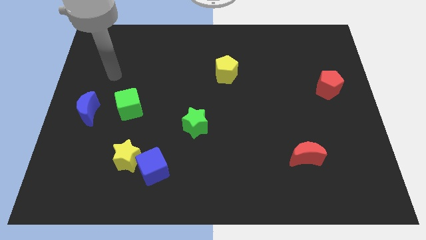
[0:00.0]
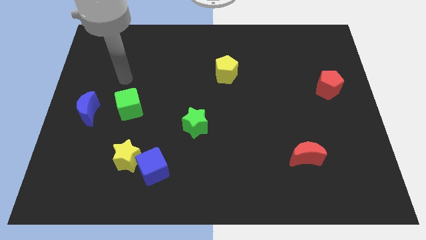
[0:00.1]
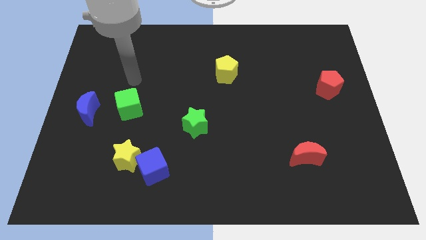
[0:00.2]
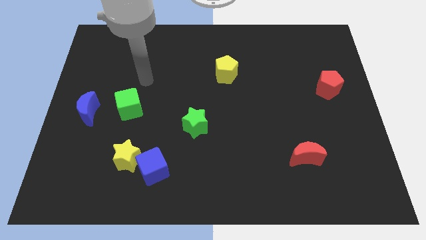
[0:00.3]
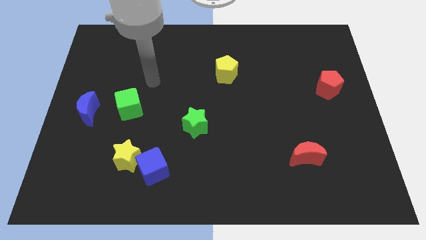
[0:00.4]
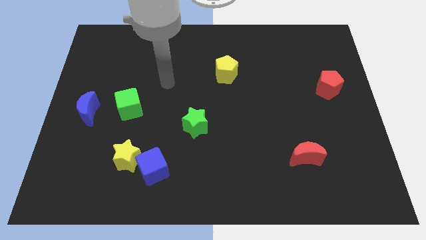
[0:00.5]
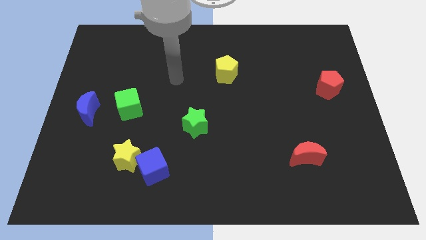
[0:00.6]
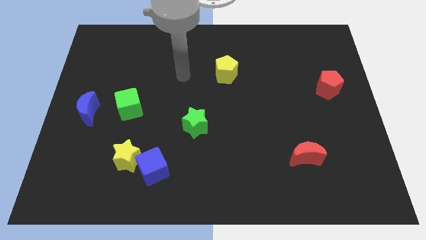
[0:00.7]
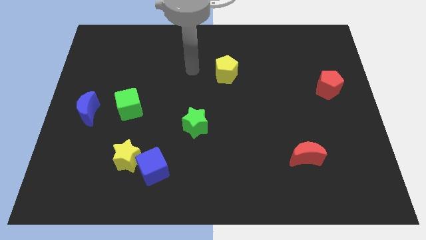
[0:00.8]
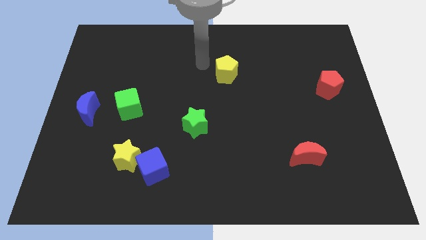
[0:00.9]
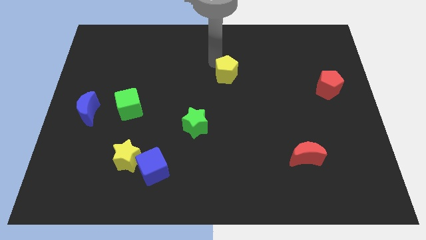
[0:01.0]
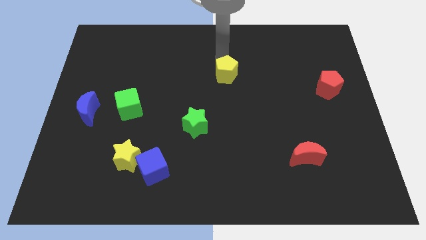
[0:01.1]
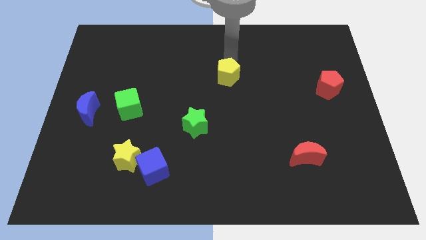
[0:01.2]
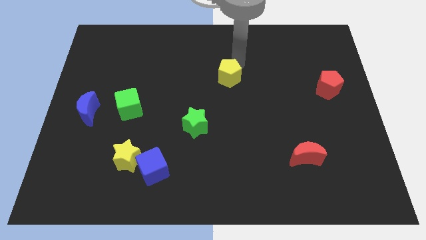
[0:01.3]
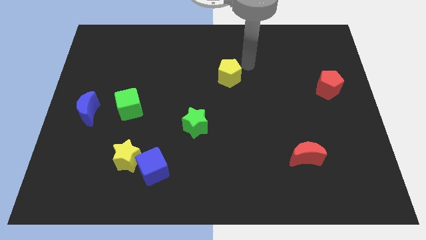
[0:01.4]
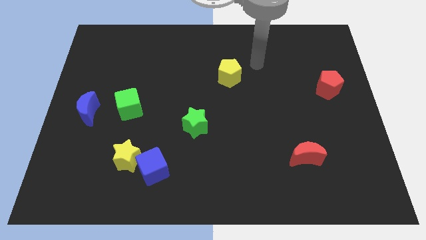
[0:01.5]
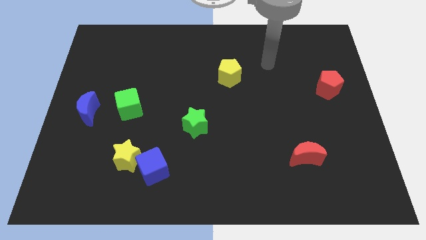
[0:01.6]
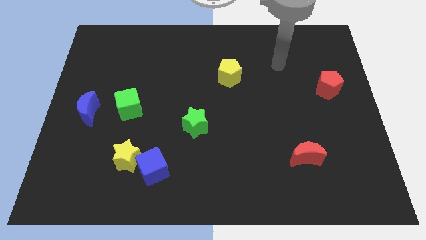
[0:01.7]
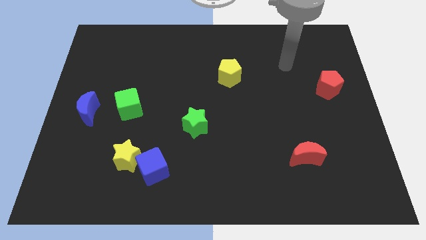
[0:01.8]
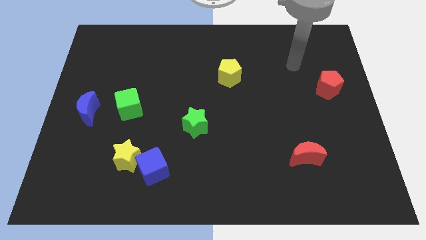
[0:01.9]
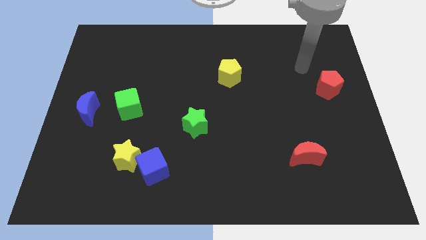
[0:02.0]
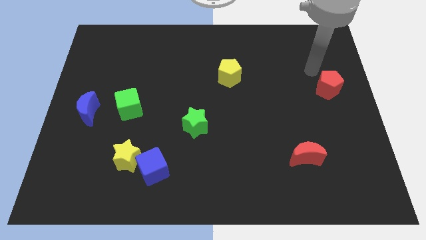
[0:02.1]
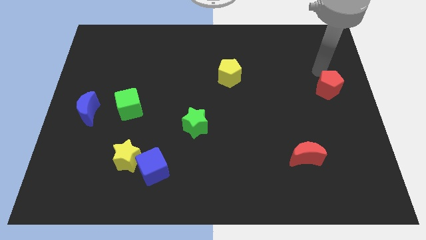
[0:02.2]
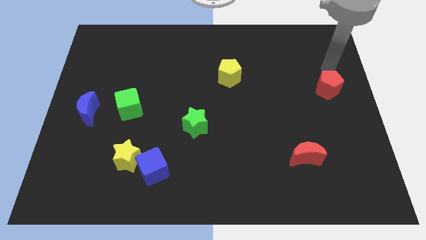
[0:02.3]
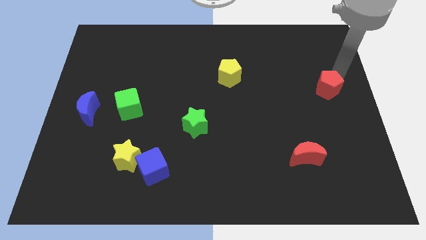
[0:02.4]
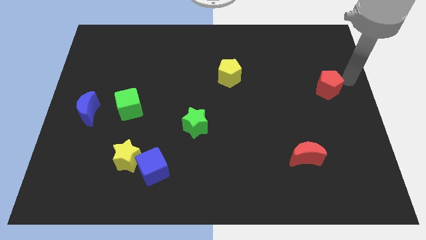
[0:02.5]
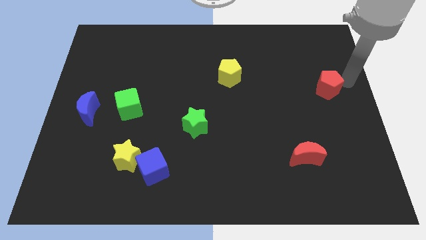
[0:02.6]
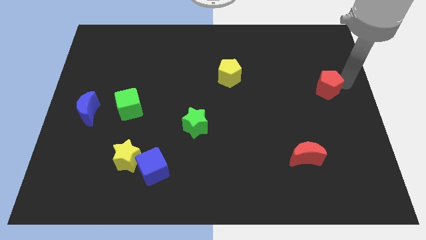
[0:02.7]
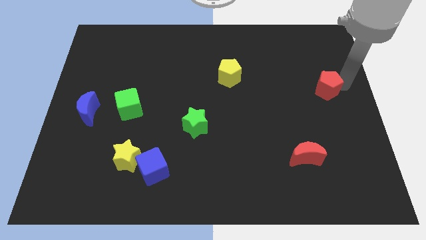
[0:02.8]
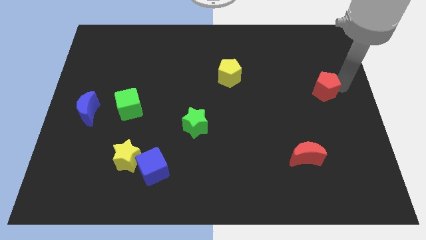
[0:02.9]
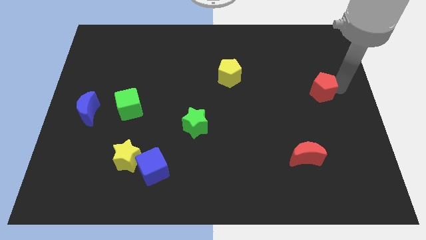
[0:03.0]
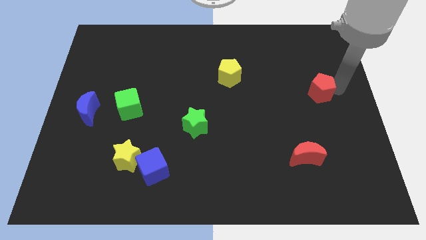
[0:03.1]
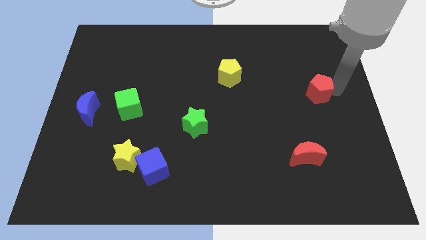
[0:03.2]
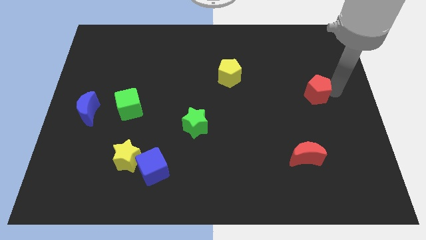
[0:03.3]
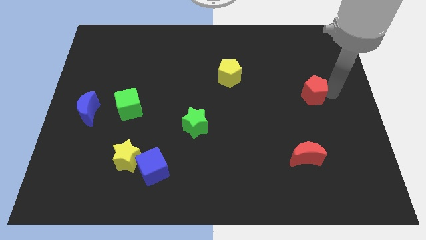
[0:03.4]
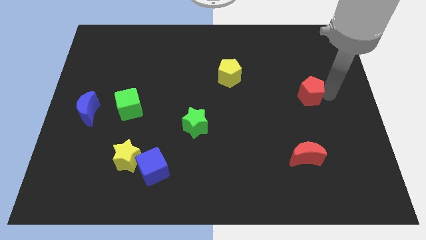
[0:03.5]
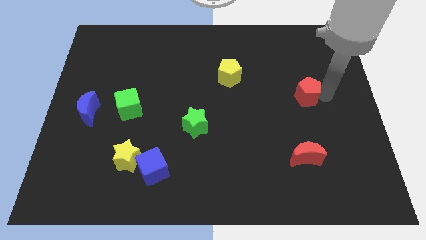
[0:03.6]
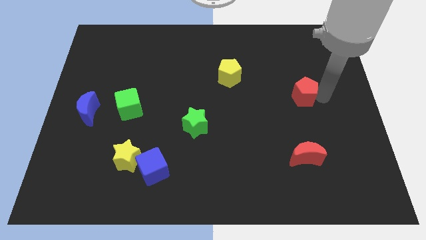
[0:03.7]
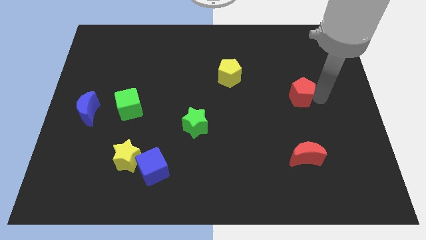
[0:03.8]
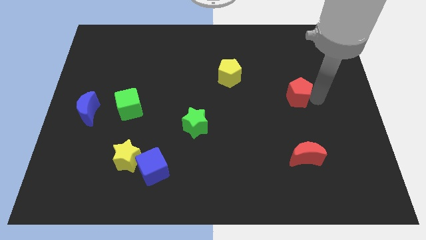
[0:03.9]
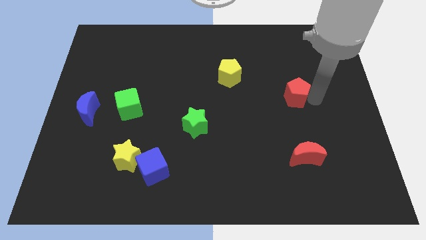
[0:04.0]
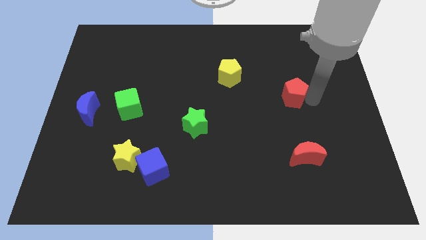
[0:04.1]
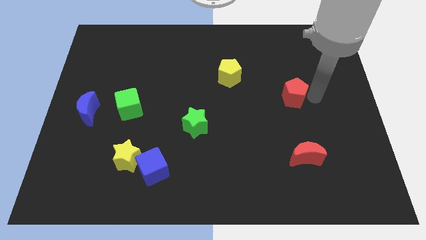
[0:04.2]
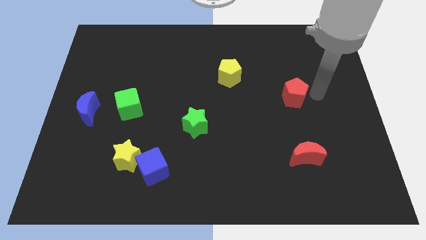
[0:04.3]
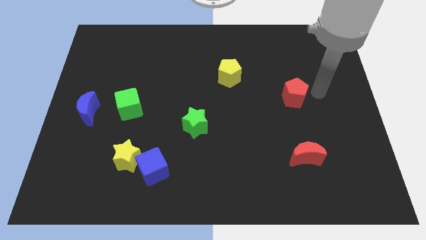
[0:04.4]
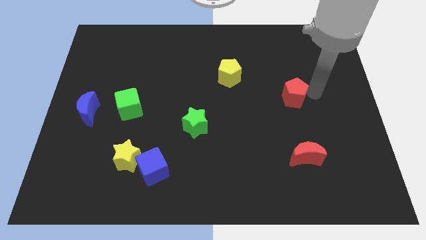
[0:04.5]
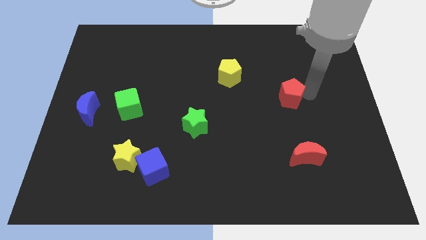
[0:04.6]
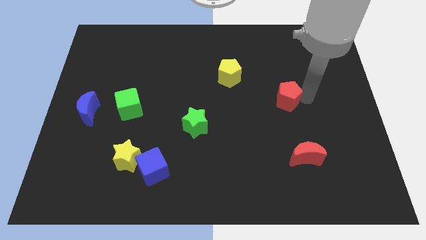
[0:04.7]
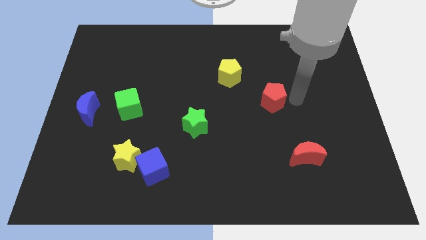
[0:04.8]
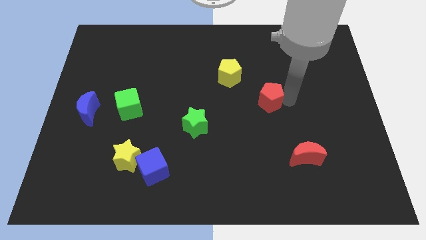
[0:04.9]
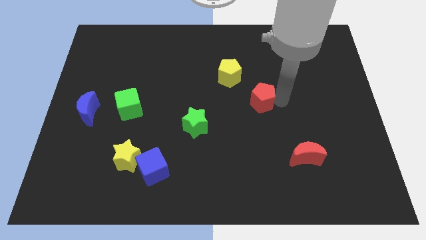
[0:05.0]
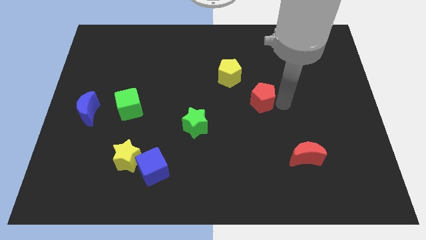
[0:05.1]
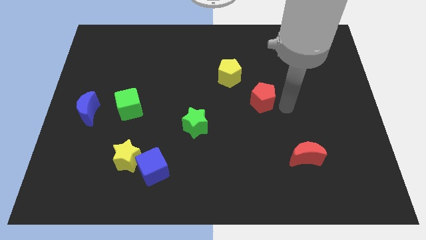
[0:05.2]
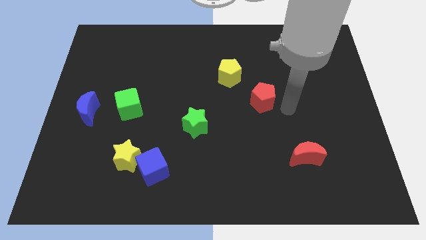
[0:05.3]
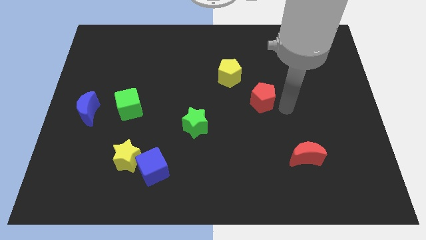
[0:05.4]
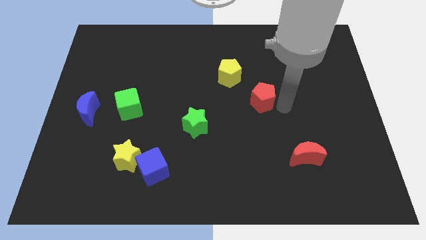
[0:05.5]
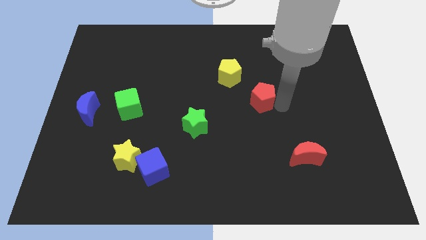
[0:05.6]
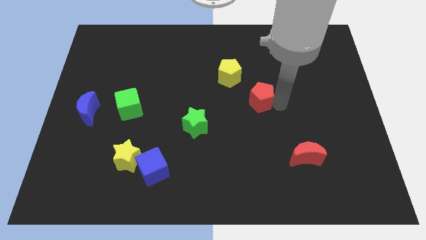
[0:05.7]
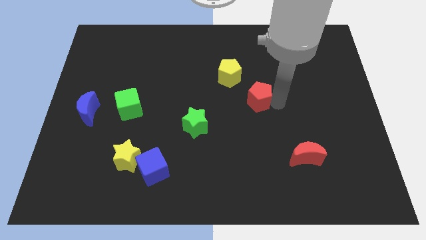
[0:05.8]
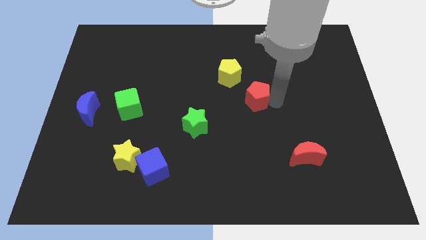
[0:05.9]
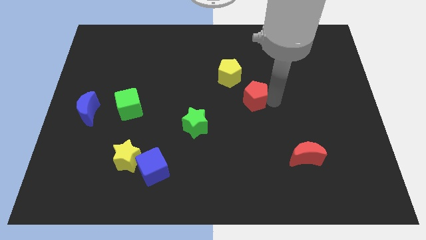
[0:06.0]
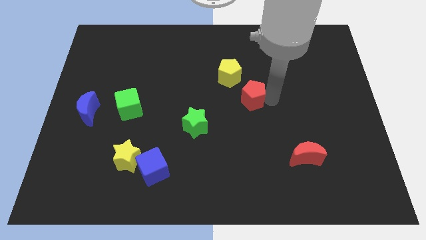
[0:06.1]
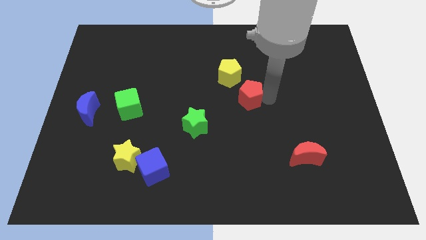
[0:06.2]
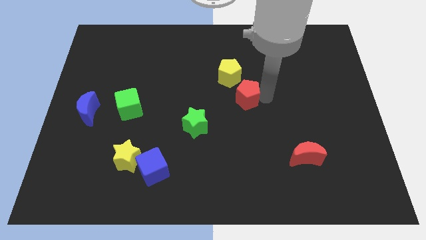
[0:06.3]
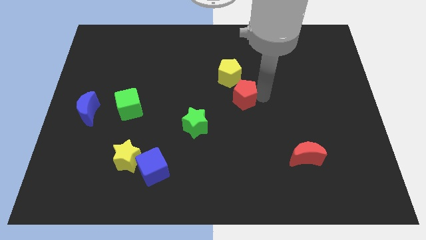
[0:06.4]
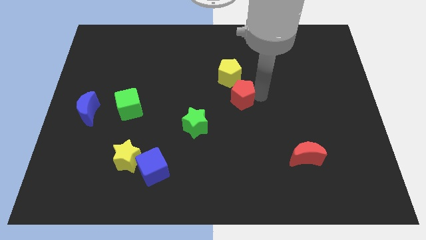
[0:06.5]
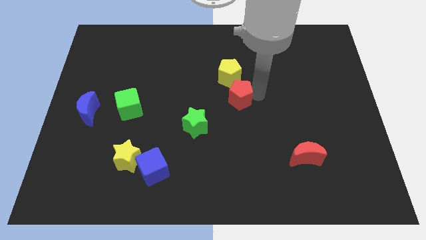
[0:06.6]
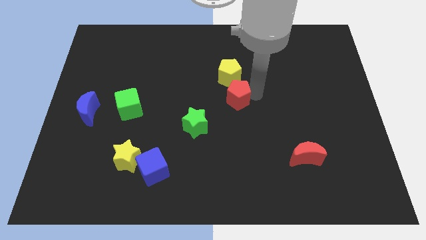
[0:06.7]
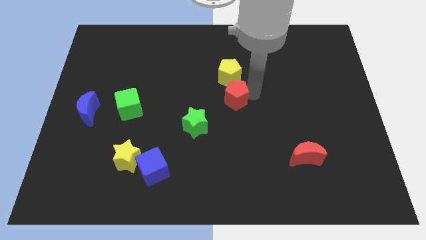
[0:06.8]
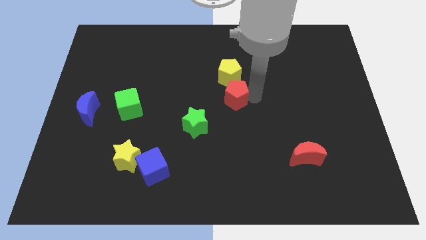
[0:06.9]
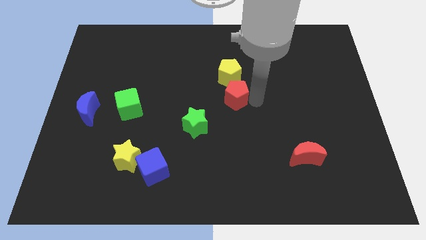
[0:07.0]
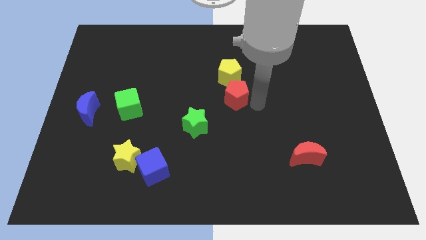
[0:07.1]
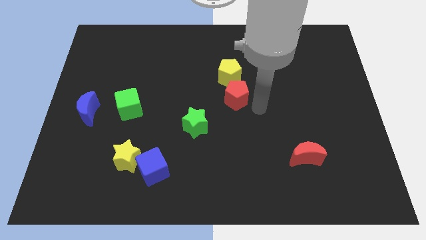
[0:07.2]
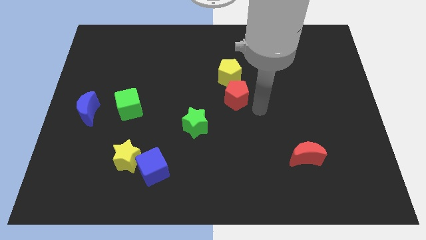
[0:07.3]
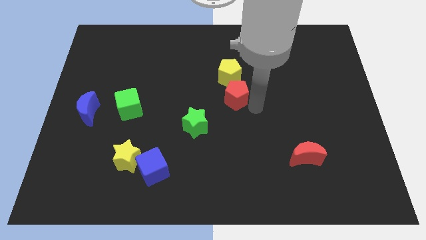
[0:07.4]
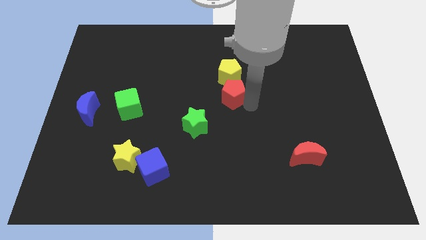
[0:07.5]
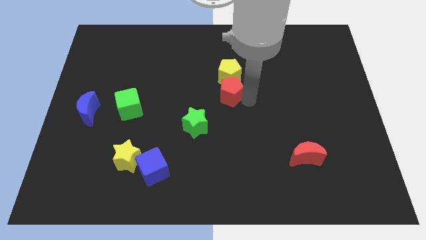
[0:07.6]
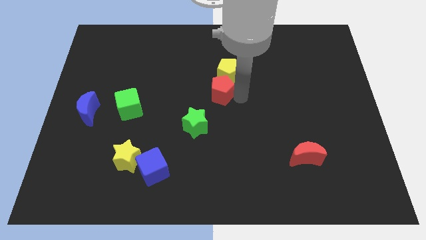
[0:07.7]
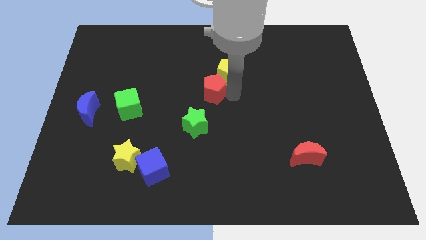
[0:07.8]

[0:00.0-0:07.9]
move the red pentagon to the top side of the green star

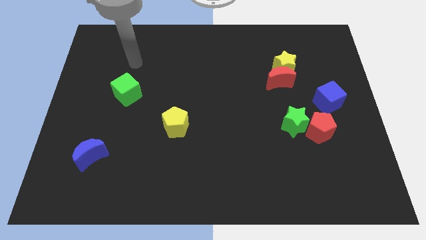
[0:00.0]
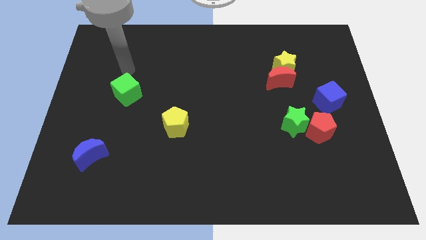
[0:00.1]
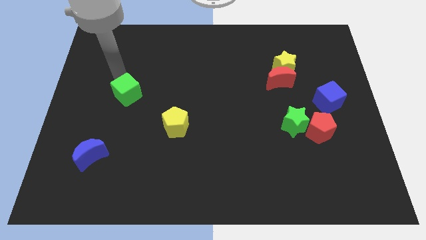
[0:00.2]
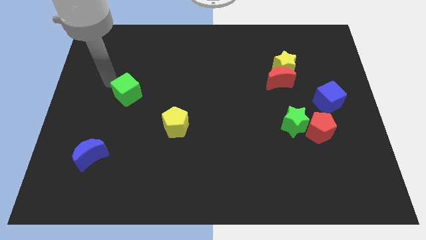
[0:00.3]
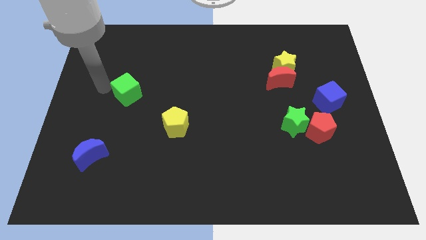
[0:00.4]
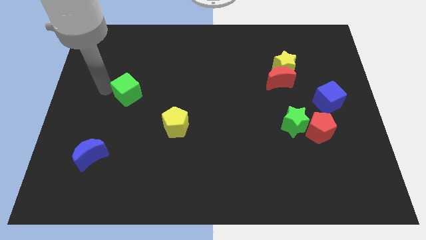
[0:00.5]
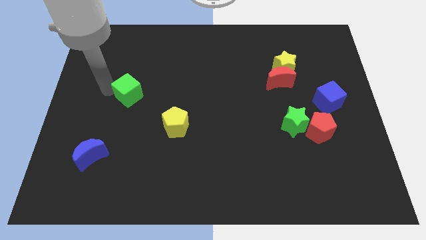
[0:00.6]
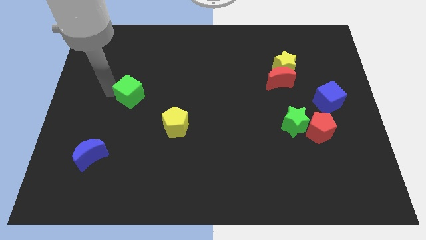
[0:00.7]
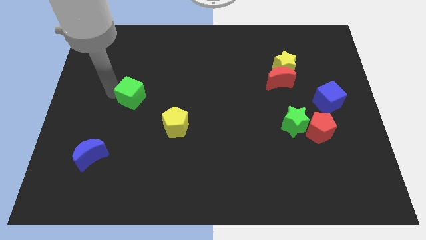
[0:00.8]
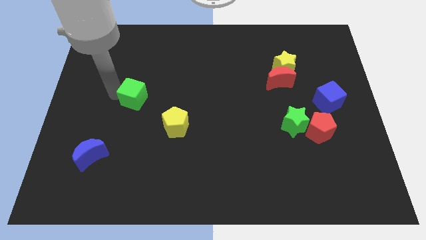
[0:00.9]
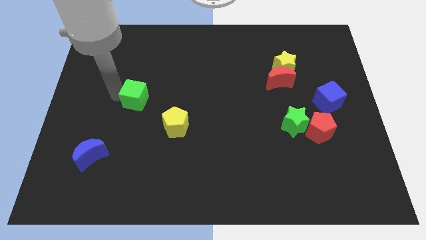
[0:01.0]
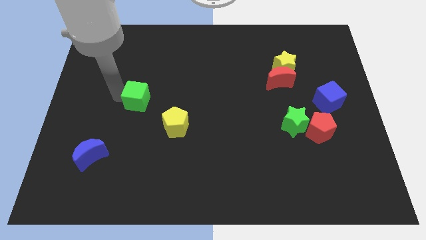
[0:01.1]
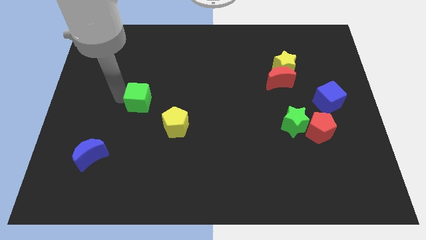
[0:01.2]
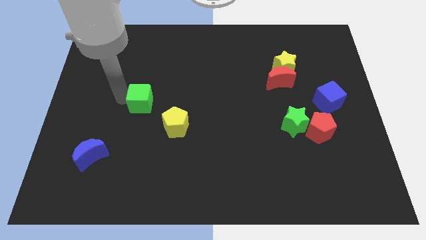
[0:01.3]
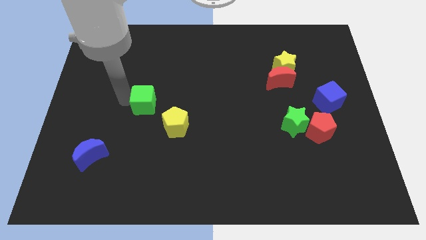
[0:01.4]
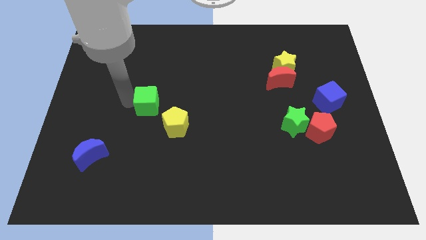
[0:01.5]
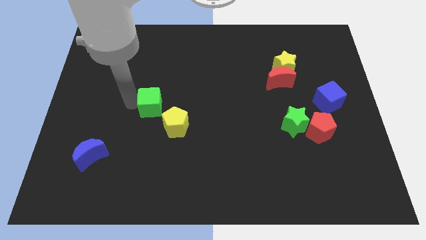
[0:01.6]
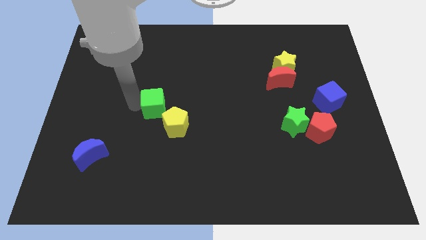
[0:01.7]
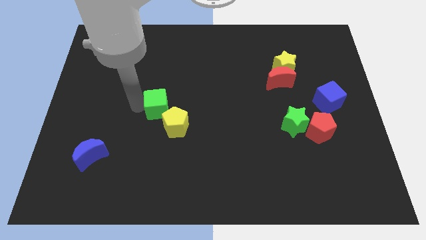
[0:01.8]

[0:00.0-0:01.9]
push the green cube to the top side of the yellow pentagon
